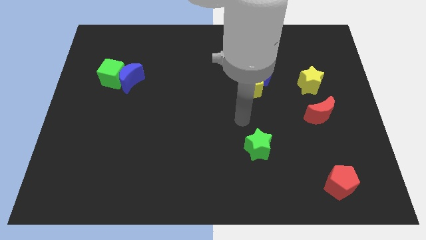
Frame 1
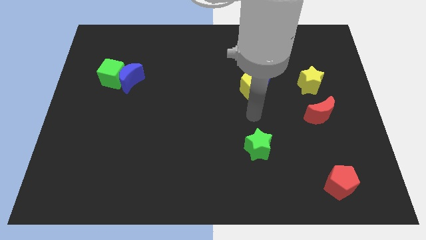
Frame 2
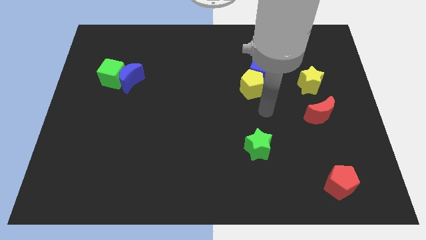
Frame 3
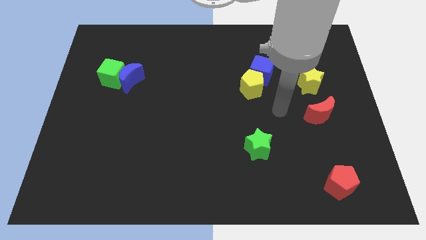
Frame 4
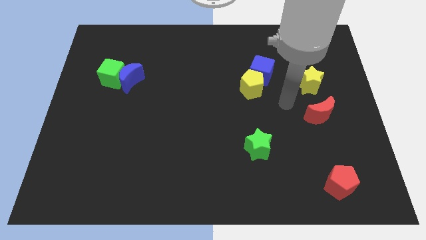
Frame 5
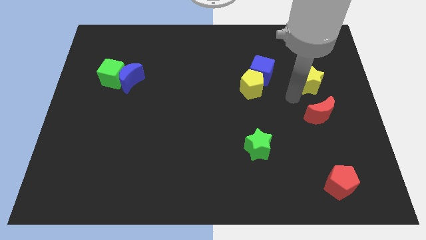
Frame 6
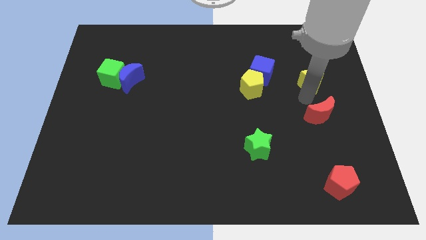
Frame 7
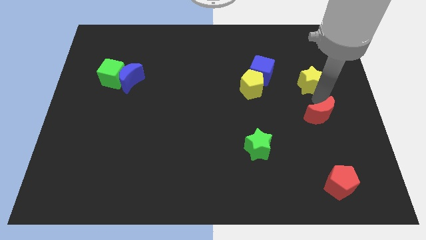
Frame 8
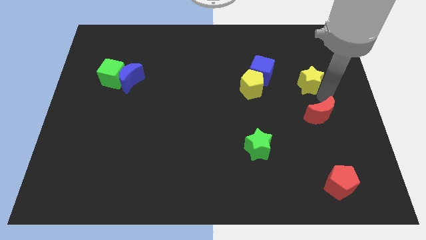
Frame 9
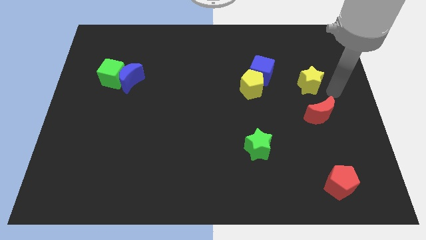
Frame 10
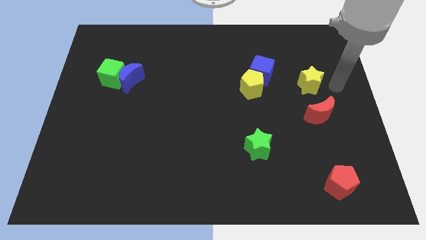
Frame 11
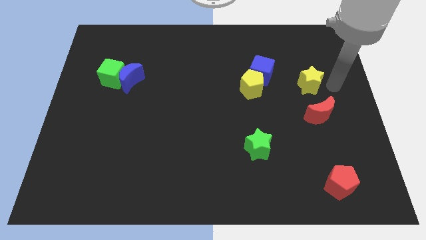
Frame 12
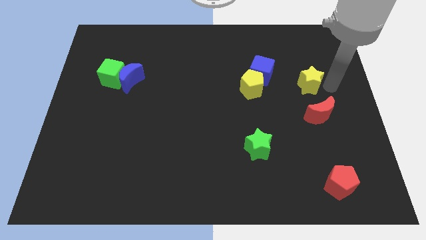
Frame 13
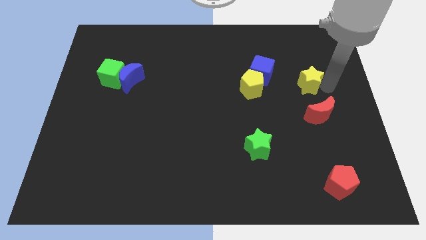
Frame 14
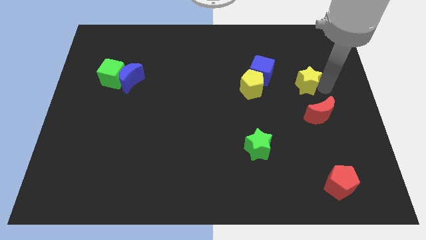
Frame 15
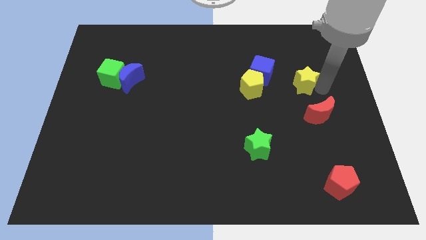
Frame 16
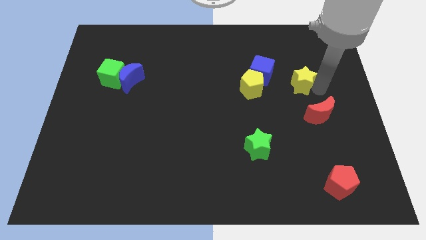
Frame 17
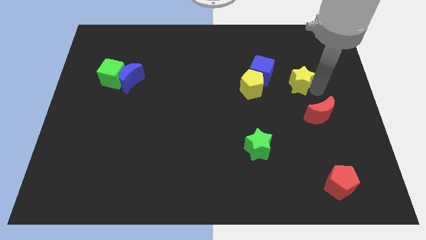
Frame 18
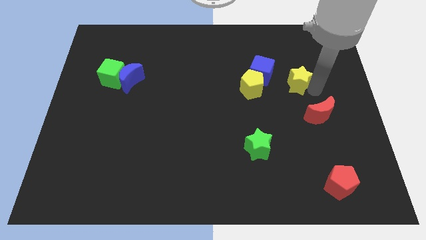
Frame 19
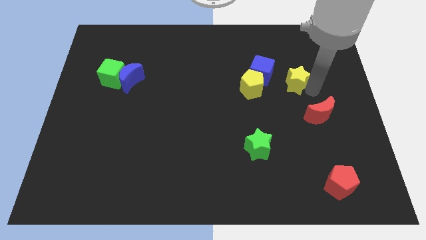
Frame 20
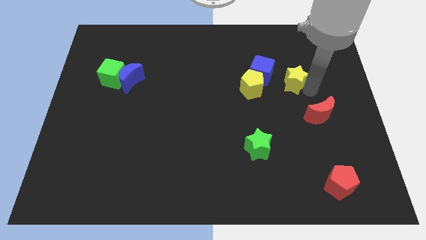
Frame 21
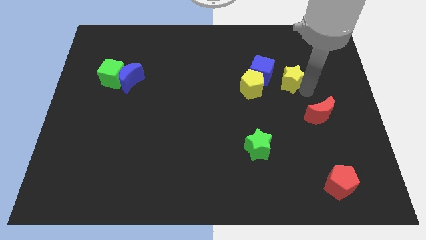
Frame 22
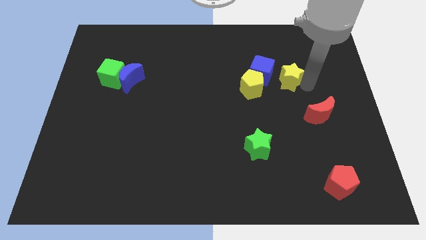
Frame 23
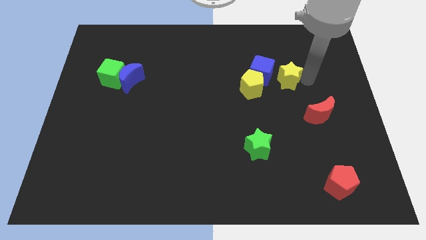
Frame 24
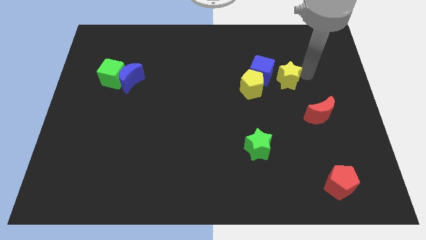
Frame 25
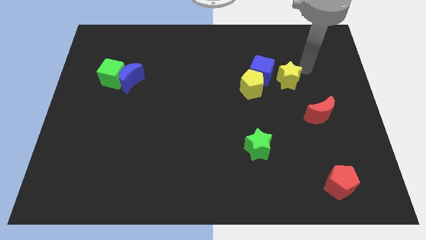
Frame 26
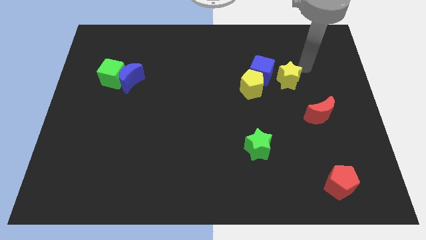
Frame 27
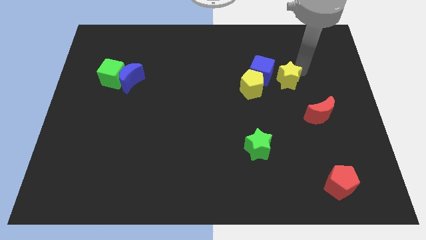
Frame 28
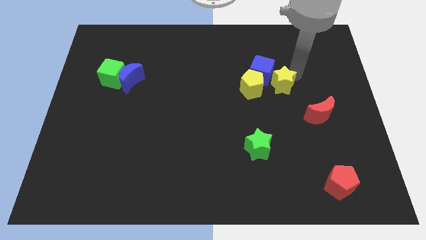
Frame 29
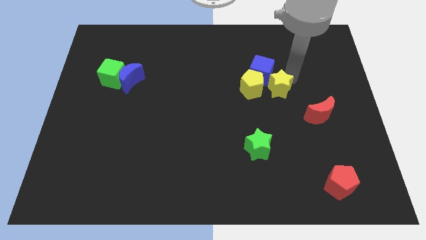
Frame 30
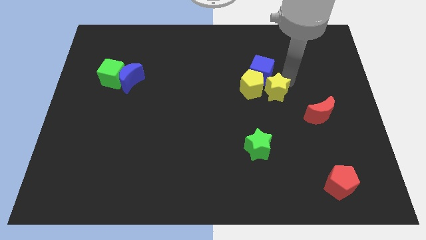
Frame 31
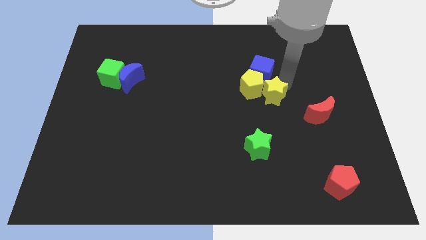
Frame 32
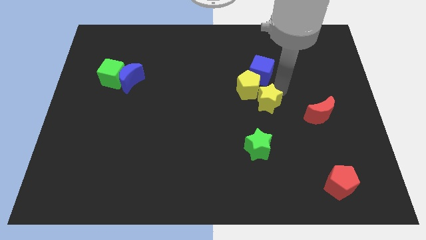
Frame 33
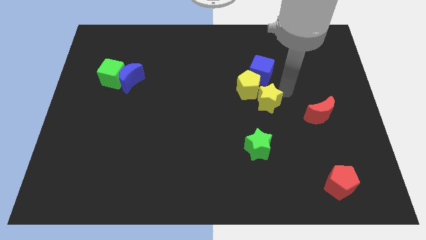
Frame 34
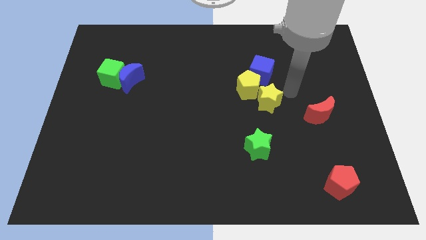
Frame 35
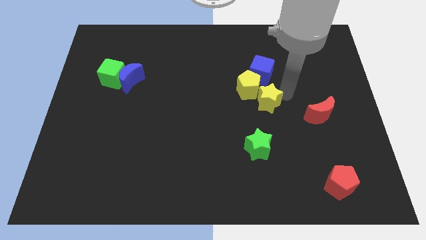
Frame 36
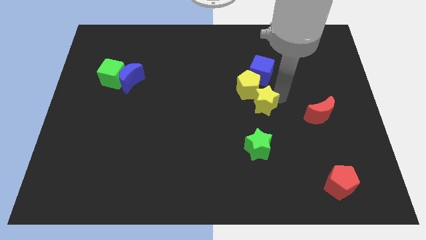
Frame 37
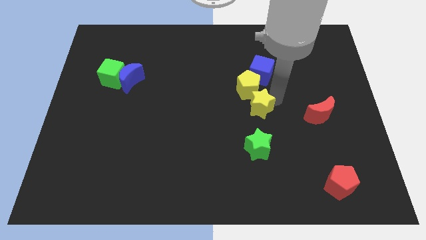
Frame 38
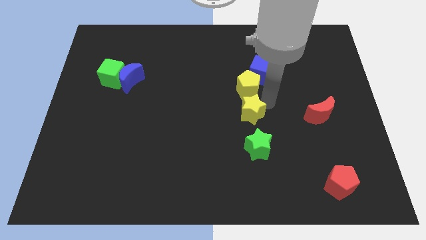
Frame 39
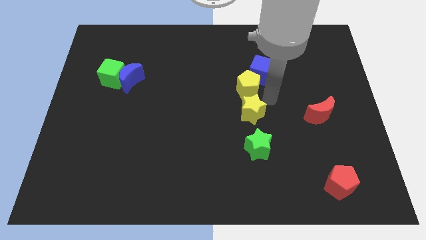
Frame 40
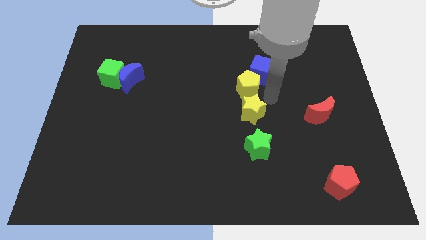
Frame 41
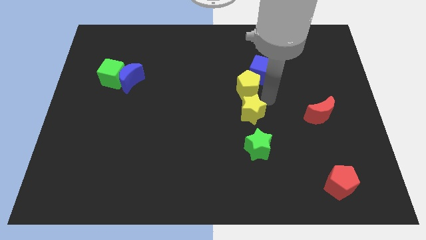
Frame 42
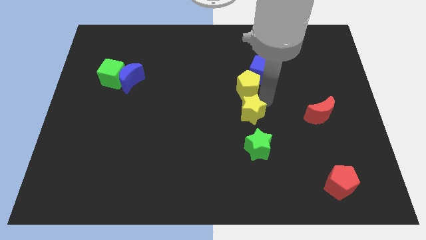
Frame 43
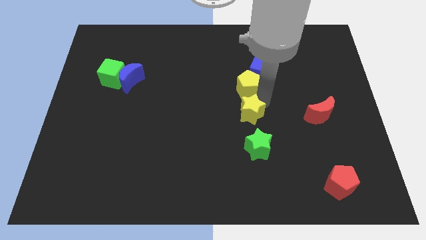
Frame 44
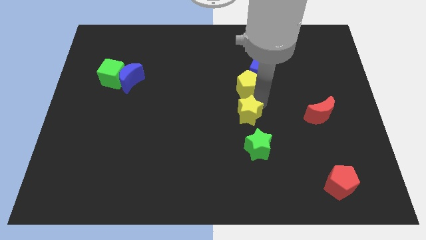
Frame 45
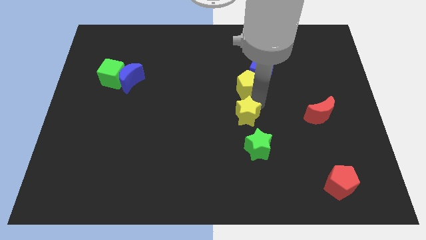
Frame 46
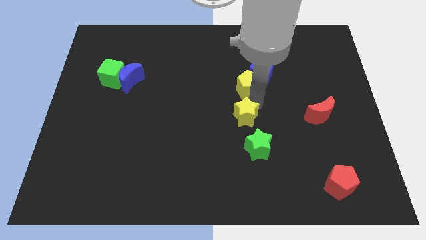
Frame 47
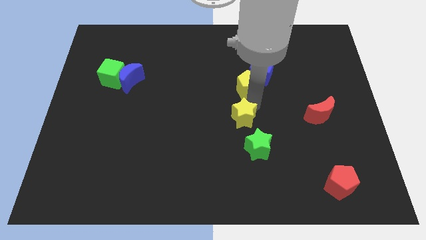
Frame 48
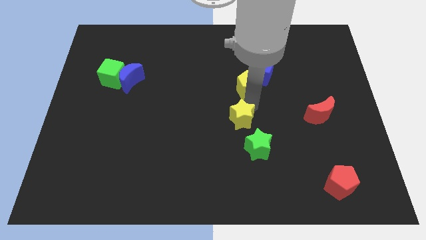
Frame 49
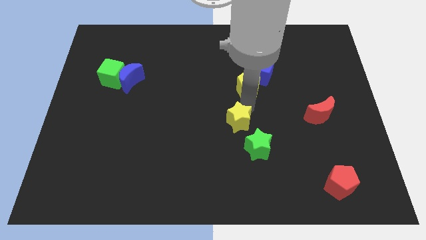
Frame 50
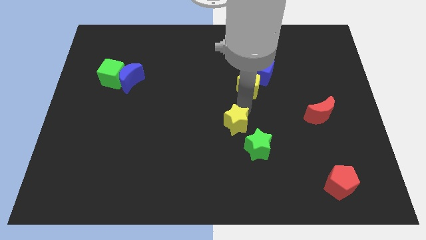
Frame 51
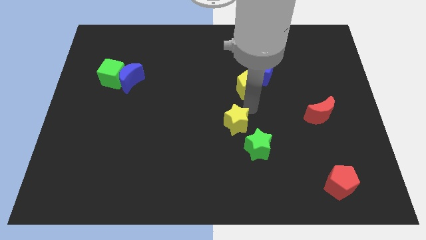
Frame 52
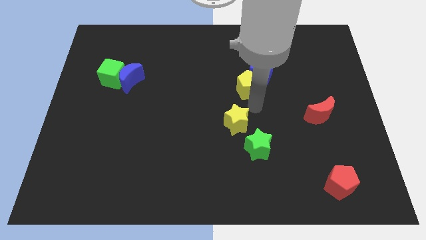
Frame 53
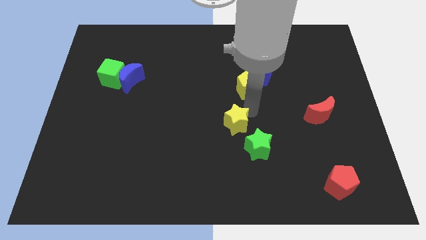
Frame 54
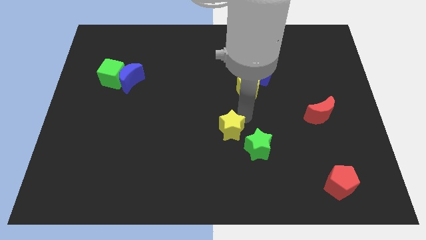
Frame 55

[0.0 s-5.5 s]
put the yellow star just left of the green star

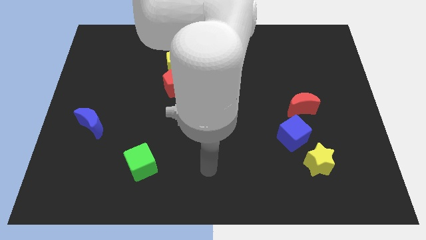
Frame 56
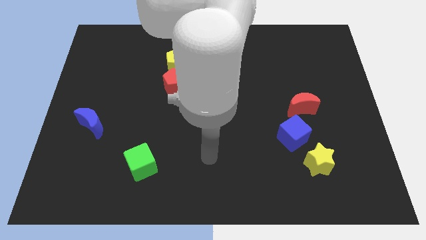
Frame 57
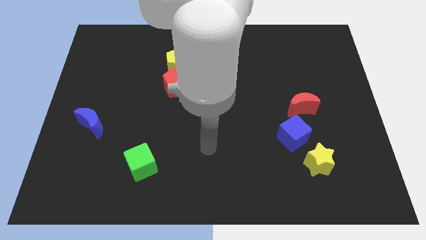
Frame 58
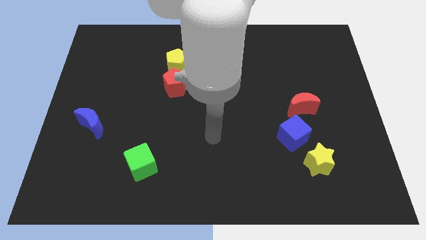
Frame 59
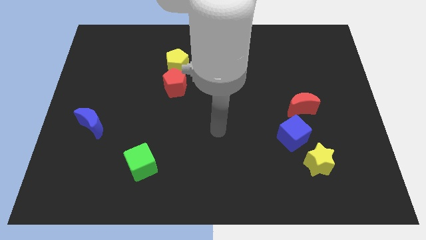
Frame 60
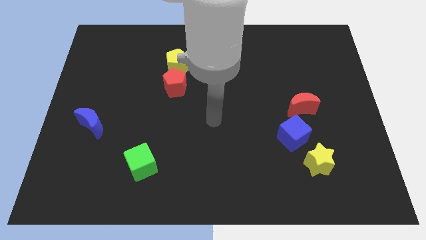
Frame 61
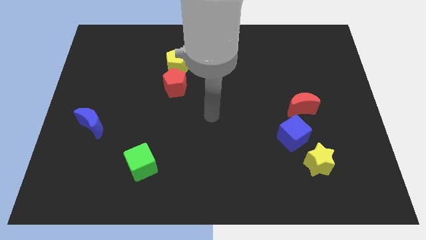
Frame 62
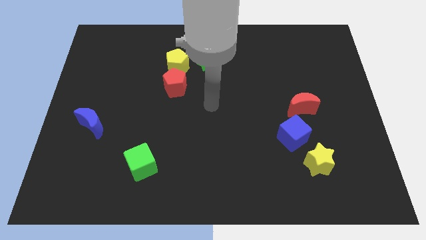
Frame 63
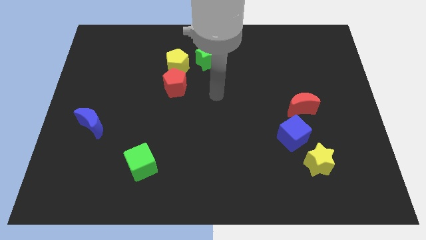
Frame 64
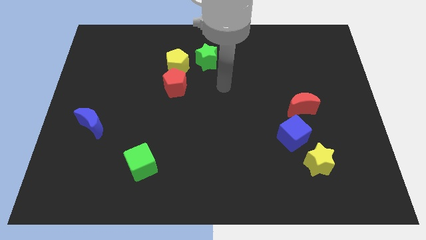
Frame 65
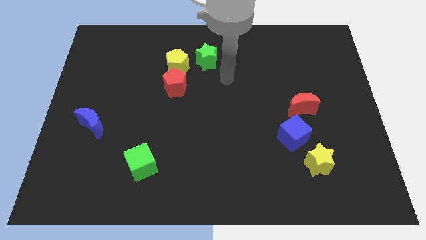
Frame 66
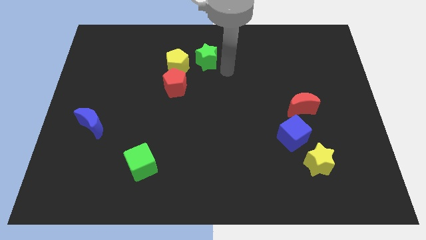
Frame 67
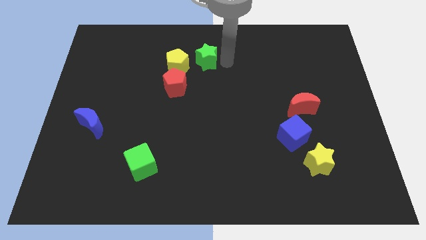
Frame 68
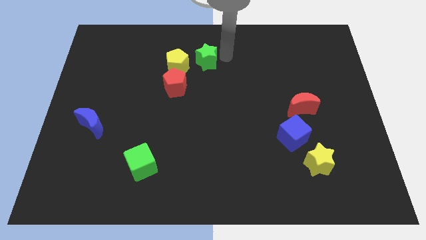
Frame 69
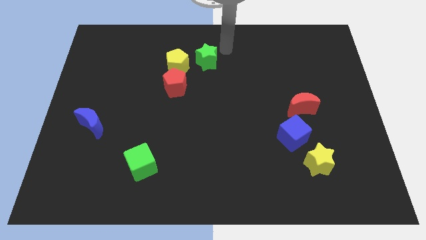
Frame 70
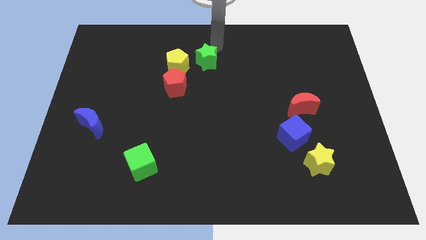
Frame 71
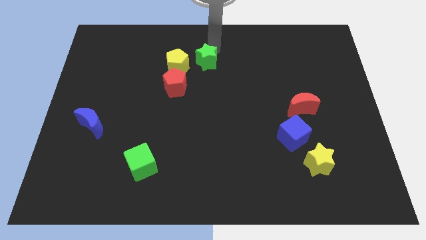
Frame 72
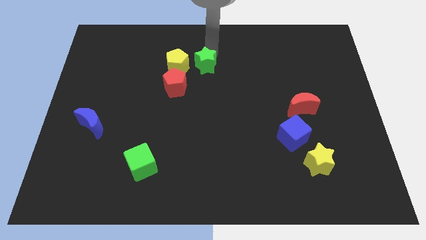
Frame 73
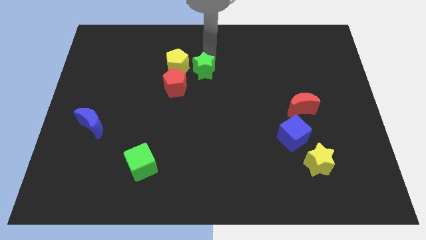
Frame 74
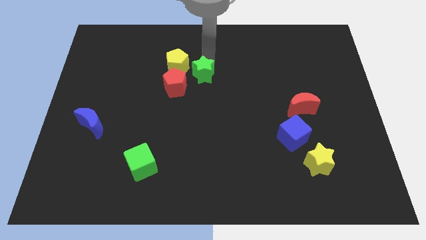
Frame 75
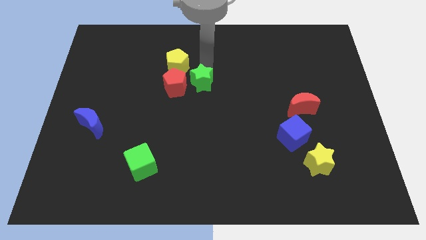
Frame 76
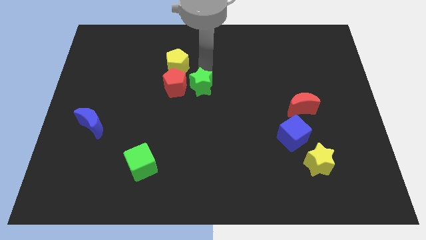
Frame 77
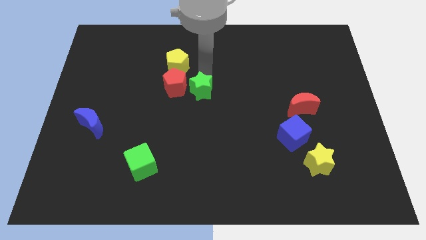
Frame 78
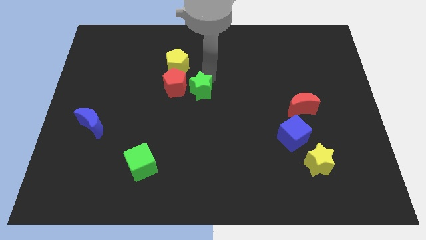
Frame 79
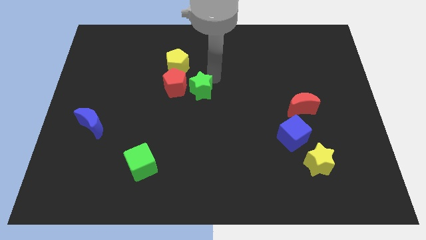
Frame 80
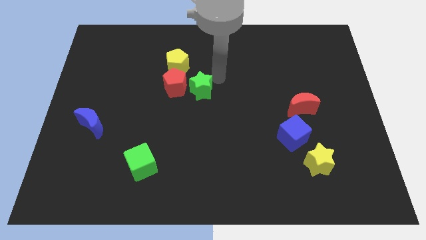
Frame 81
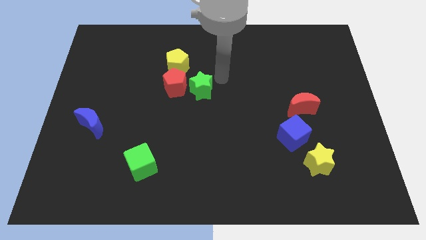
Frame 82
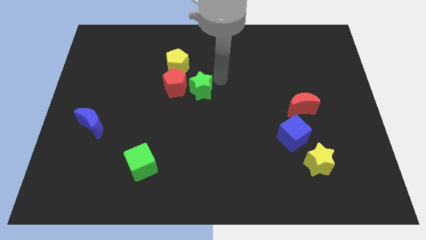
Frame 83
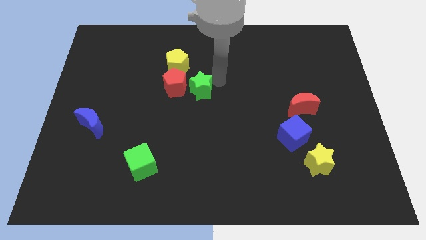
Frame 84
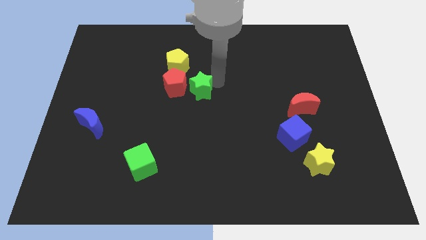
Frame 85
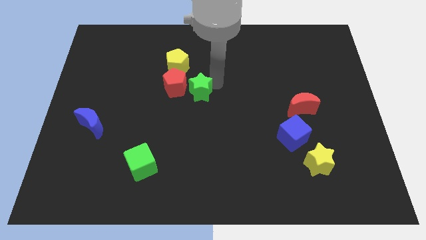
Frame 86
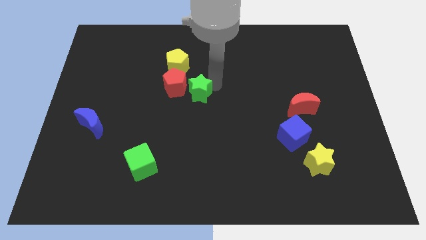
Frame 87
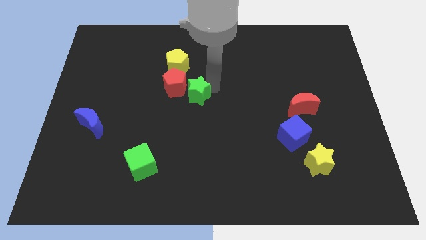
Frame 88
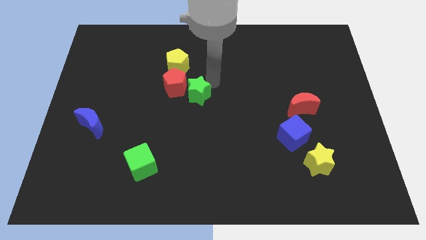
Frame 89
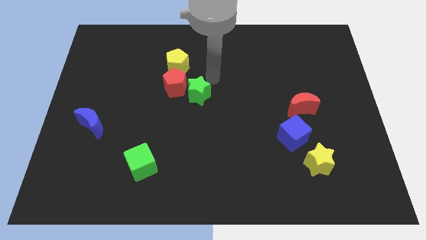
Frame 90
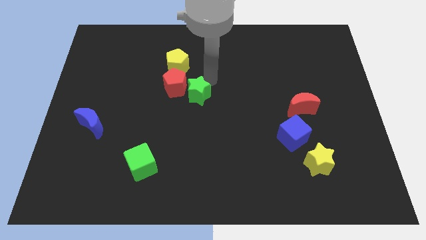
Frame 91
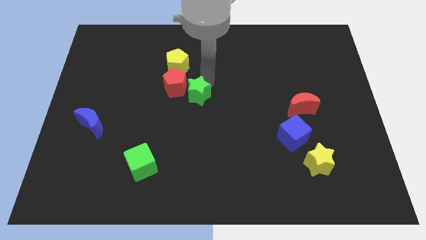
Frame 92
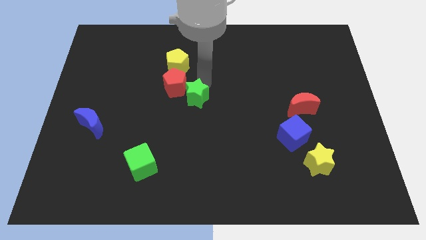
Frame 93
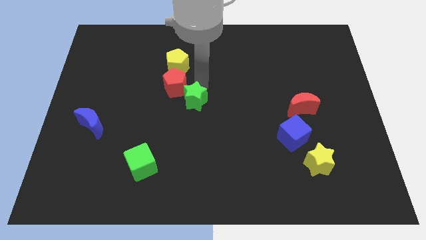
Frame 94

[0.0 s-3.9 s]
move the green star to the bottom of the red pentagon
